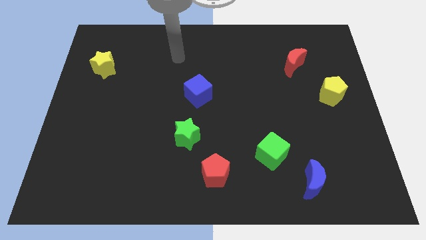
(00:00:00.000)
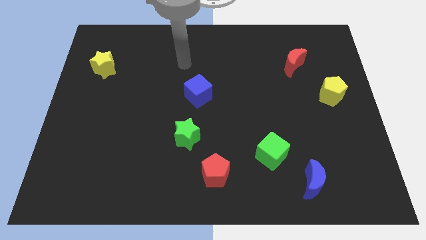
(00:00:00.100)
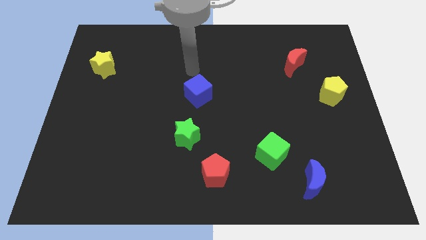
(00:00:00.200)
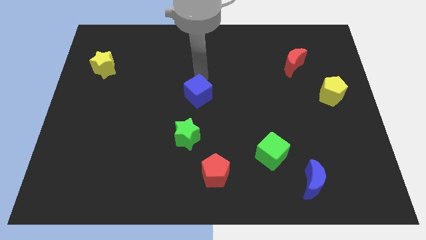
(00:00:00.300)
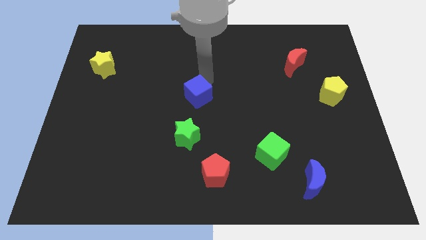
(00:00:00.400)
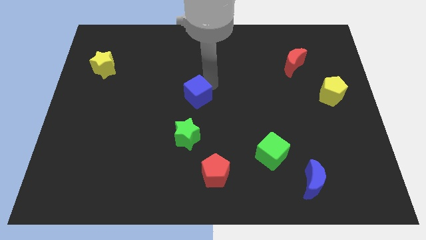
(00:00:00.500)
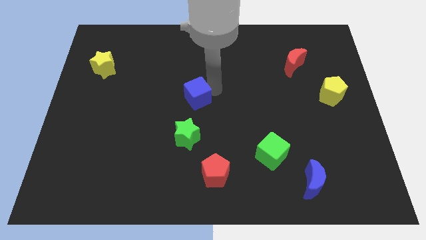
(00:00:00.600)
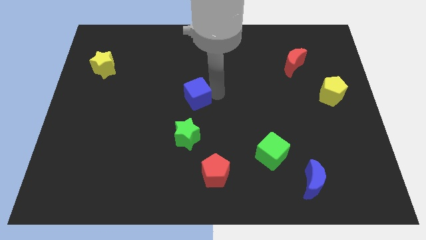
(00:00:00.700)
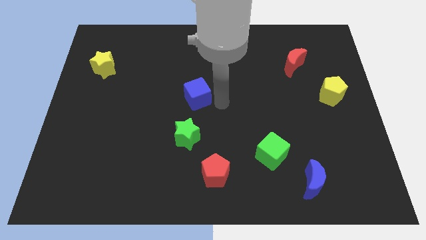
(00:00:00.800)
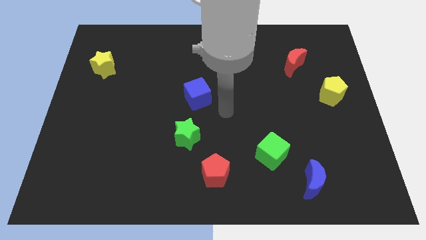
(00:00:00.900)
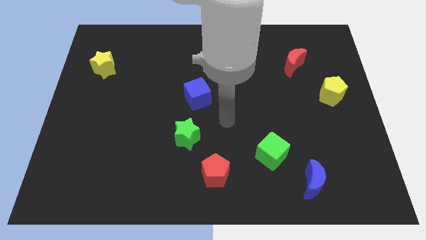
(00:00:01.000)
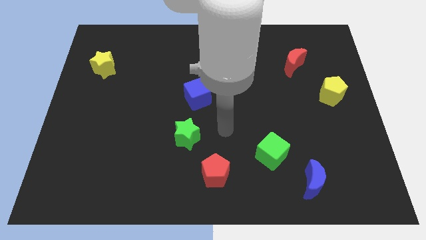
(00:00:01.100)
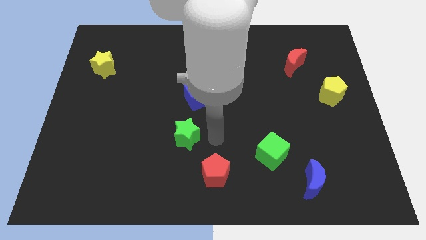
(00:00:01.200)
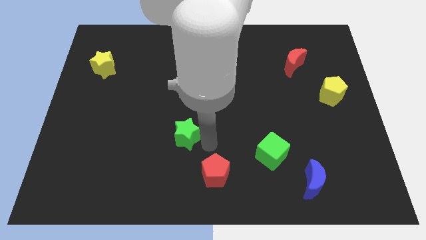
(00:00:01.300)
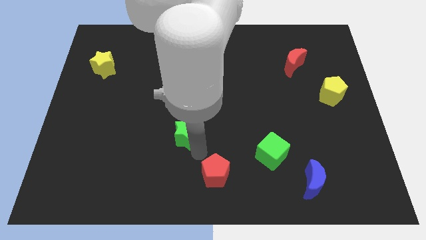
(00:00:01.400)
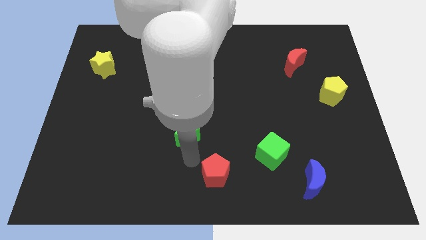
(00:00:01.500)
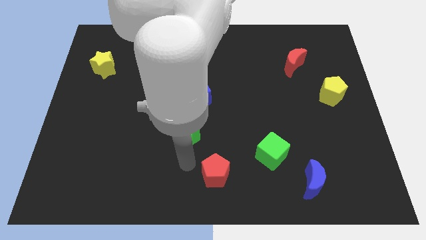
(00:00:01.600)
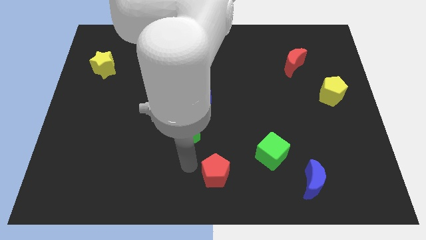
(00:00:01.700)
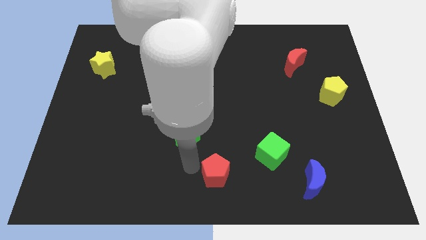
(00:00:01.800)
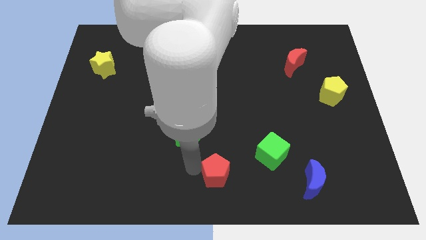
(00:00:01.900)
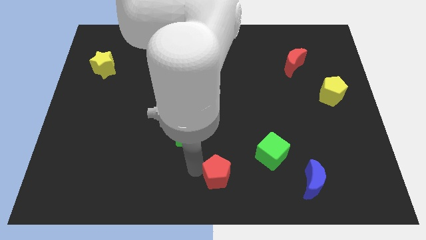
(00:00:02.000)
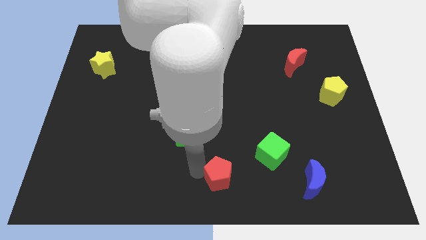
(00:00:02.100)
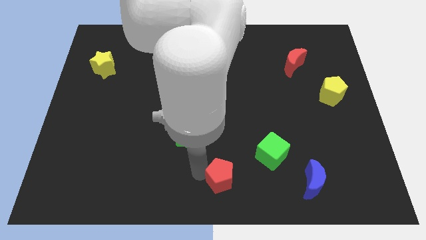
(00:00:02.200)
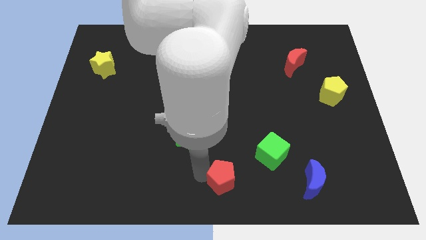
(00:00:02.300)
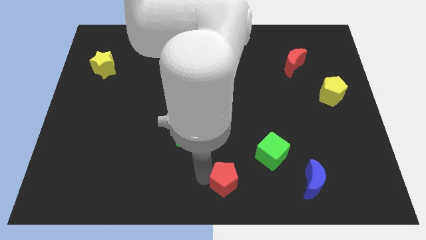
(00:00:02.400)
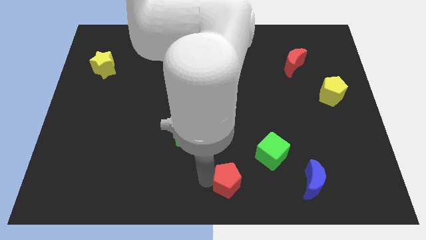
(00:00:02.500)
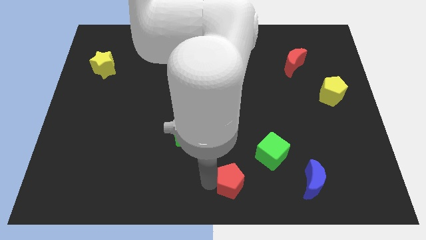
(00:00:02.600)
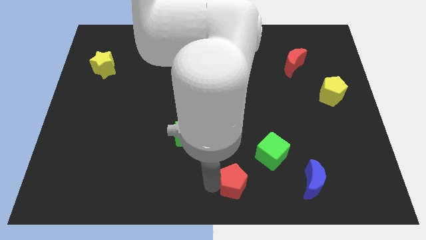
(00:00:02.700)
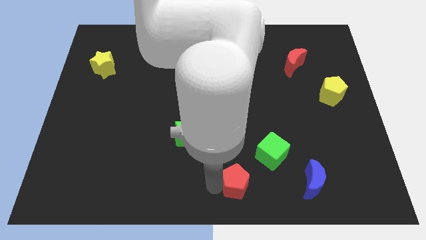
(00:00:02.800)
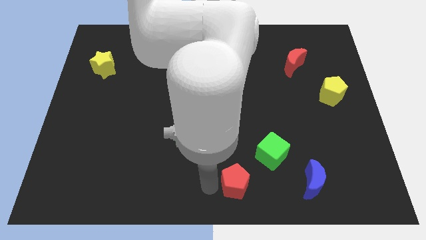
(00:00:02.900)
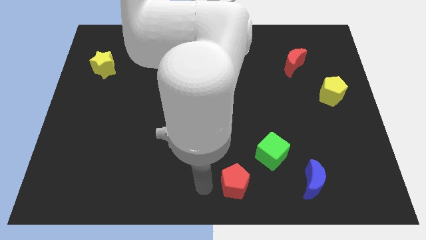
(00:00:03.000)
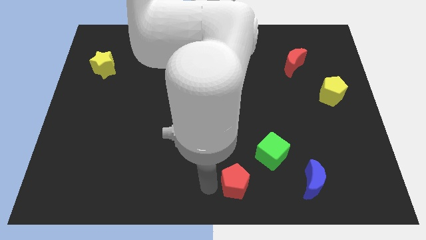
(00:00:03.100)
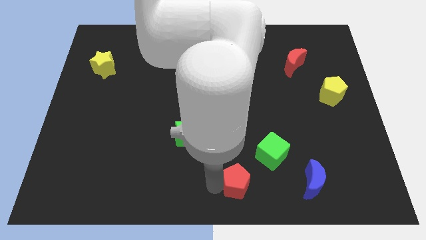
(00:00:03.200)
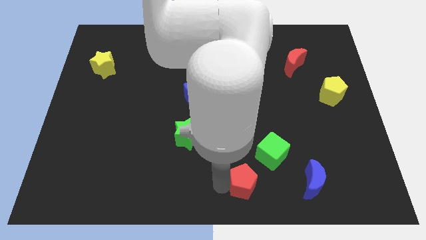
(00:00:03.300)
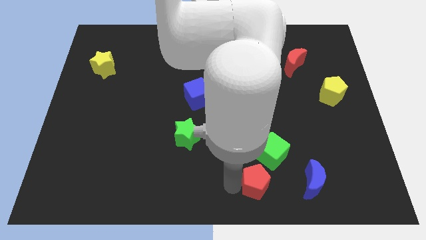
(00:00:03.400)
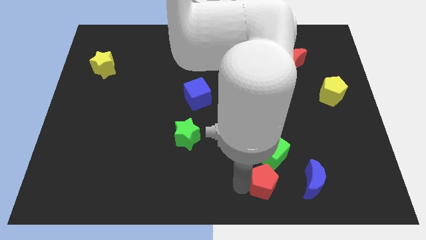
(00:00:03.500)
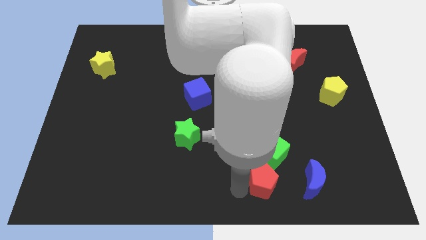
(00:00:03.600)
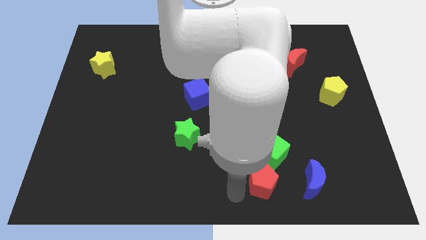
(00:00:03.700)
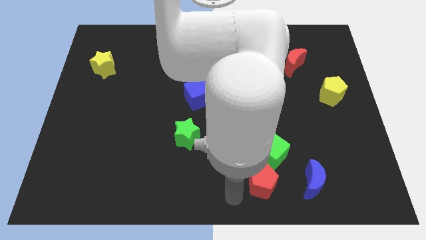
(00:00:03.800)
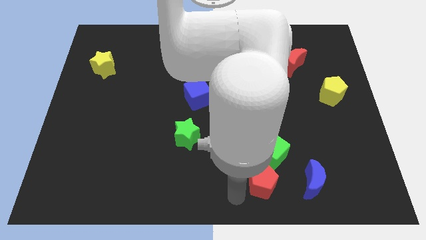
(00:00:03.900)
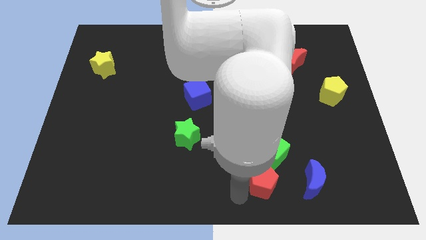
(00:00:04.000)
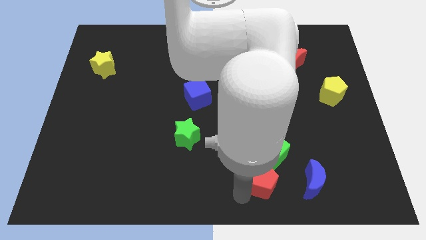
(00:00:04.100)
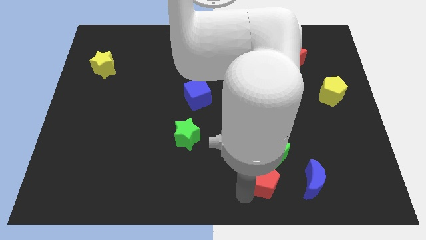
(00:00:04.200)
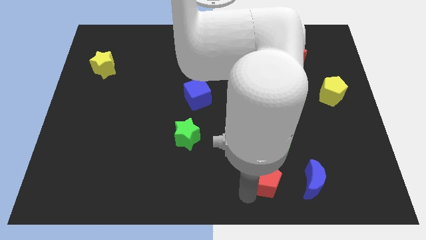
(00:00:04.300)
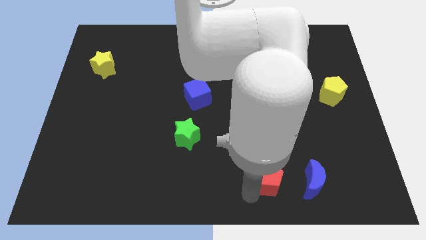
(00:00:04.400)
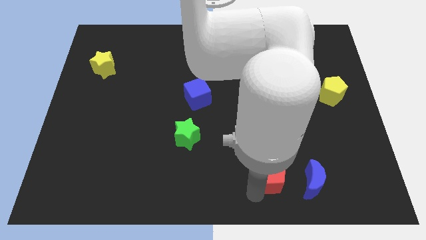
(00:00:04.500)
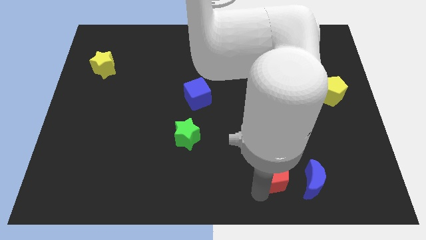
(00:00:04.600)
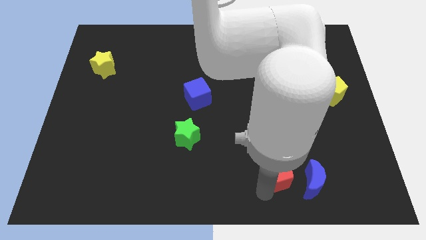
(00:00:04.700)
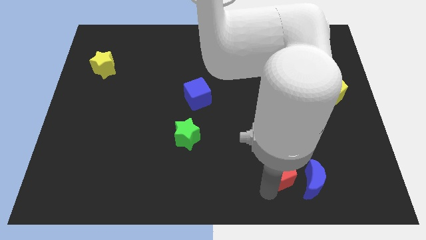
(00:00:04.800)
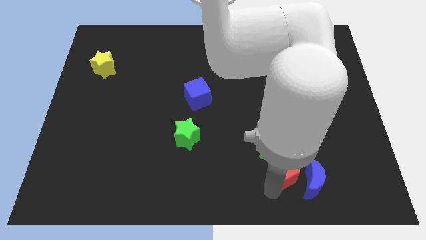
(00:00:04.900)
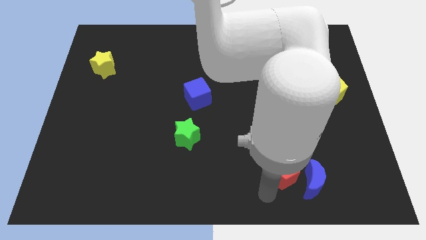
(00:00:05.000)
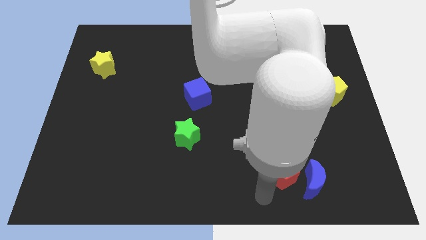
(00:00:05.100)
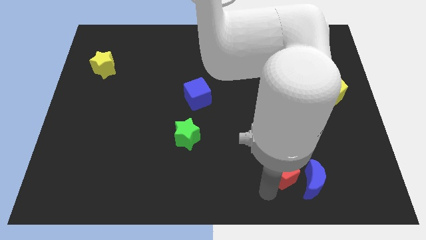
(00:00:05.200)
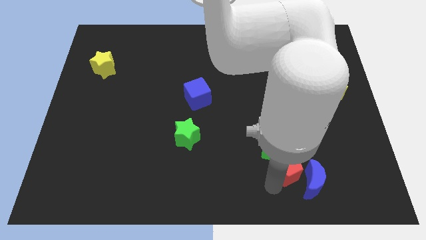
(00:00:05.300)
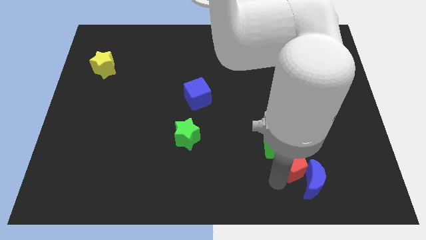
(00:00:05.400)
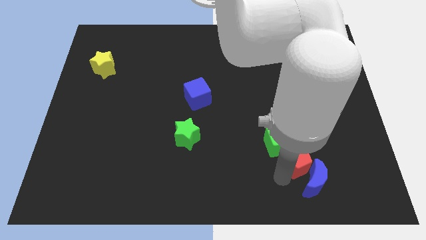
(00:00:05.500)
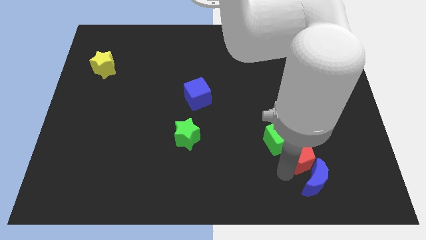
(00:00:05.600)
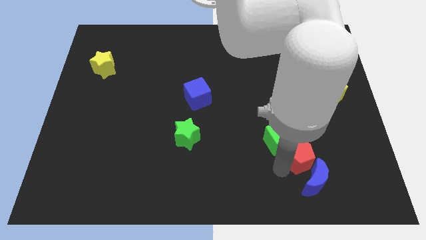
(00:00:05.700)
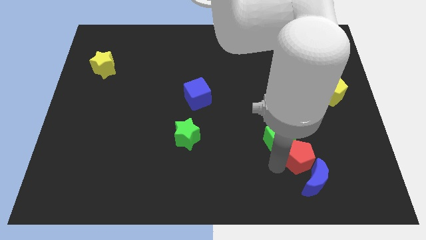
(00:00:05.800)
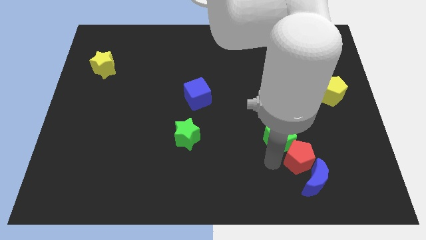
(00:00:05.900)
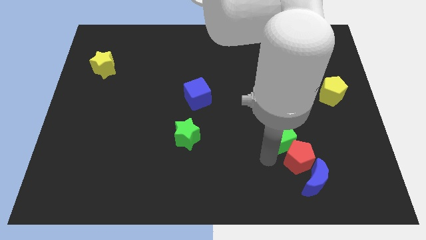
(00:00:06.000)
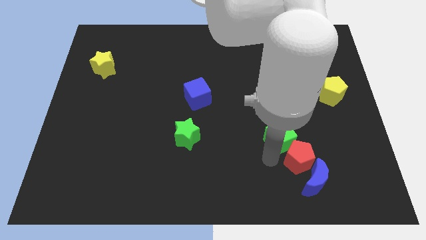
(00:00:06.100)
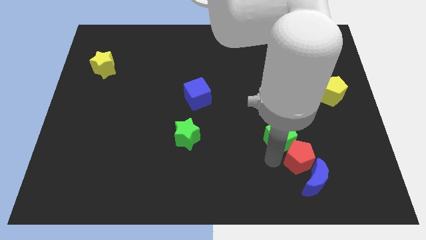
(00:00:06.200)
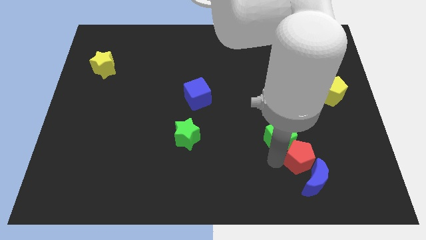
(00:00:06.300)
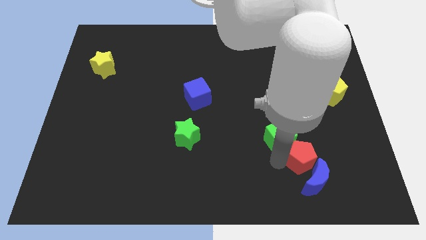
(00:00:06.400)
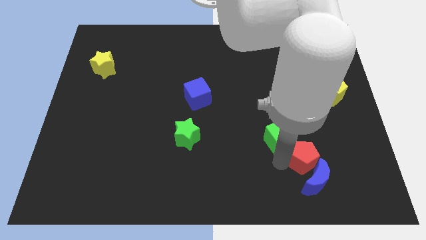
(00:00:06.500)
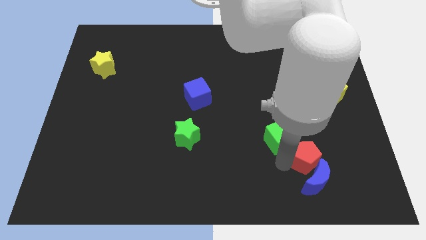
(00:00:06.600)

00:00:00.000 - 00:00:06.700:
push the red pentagon diagonally up and to the right of the blue moon
